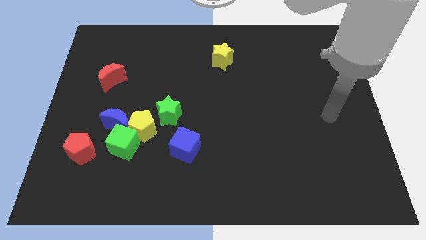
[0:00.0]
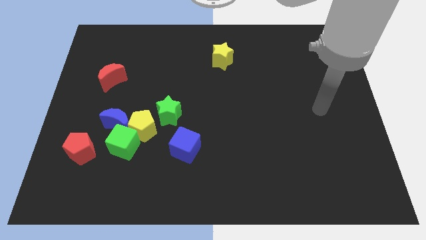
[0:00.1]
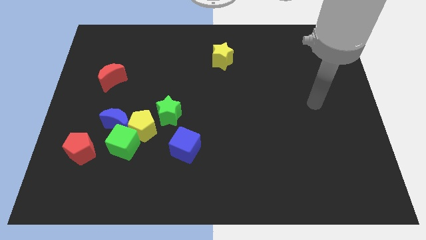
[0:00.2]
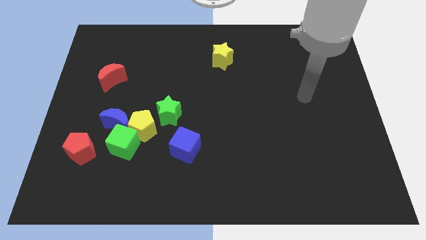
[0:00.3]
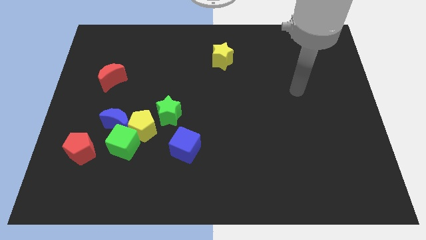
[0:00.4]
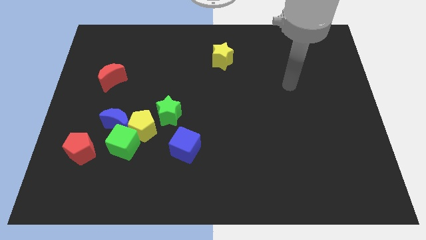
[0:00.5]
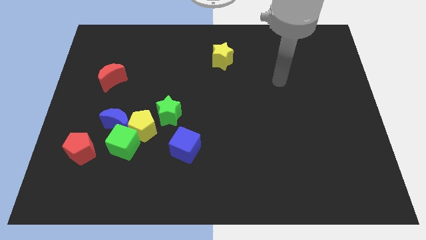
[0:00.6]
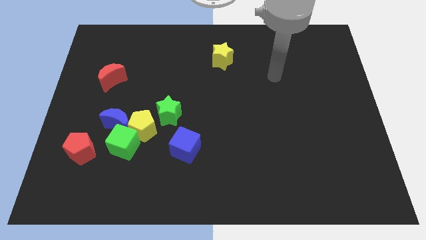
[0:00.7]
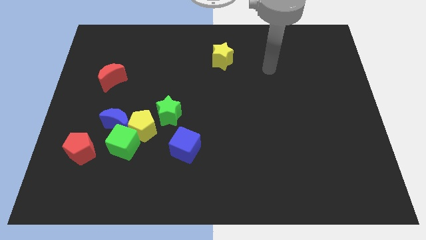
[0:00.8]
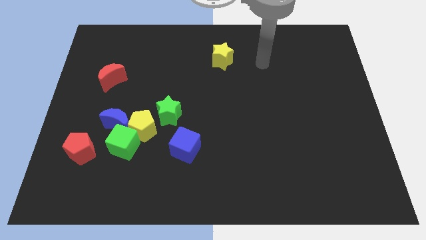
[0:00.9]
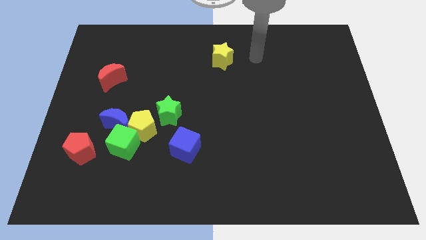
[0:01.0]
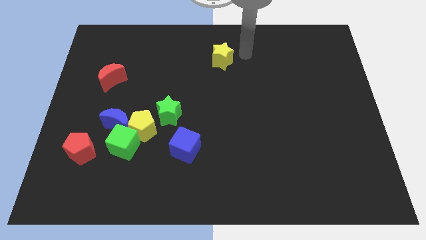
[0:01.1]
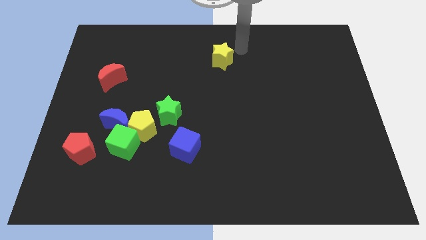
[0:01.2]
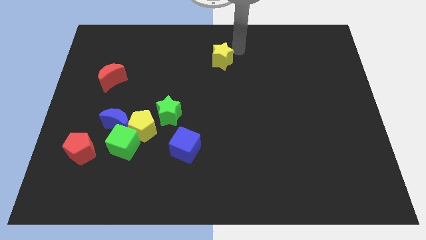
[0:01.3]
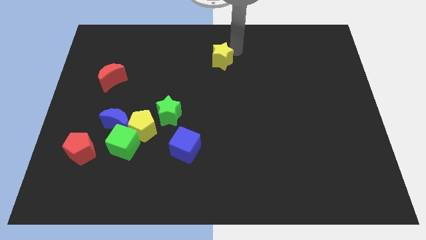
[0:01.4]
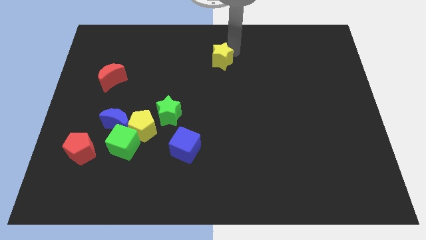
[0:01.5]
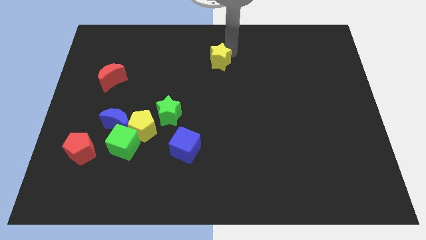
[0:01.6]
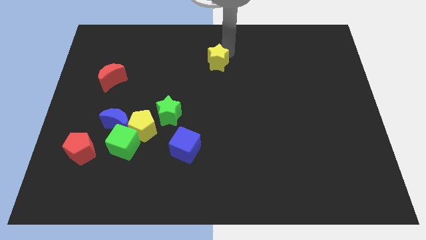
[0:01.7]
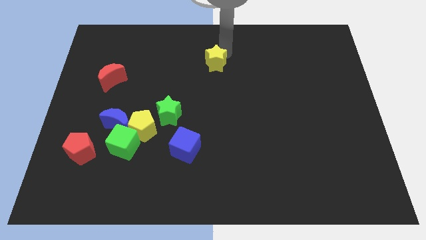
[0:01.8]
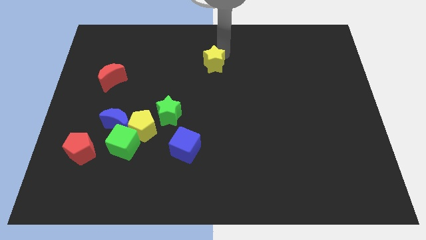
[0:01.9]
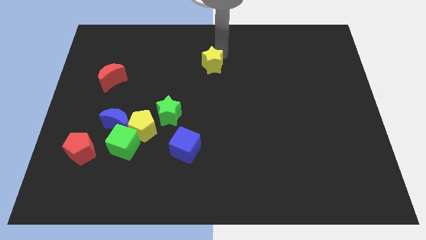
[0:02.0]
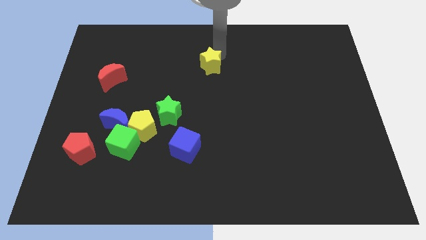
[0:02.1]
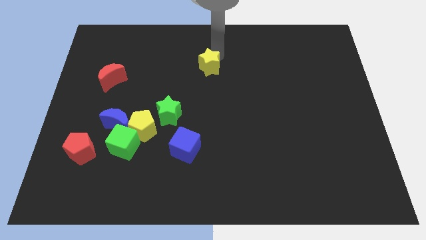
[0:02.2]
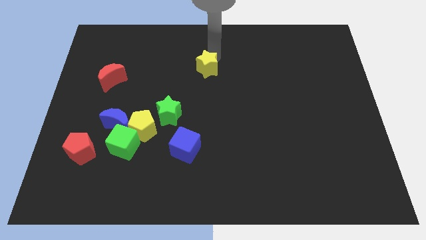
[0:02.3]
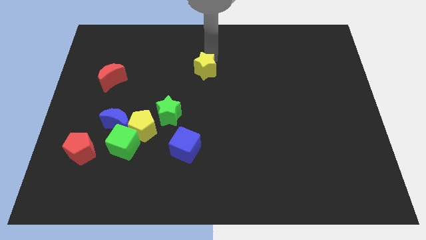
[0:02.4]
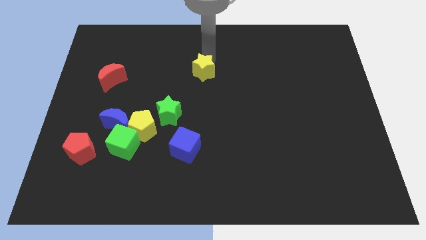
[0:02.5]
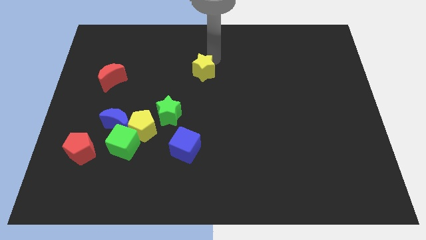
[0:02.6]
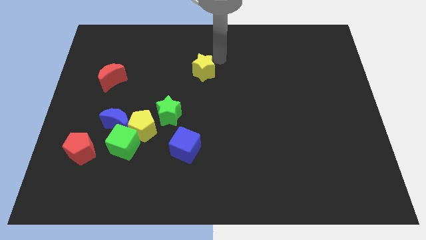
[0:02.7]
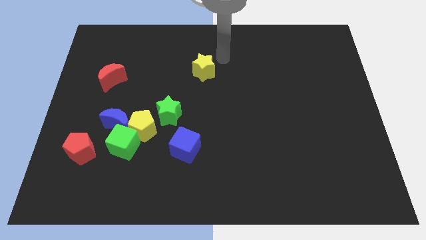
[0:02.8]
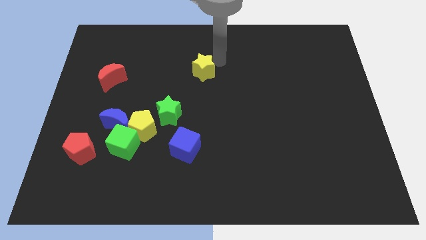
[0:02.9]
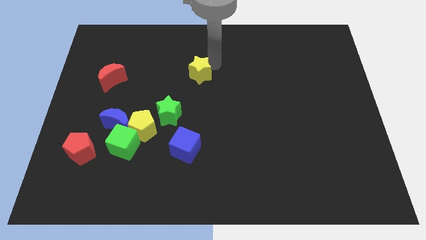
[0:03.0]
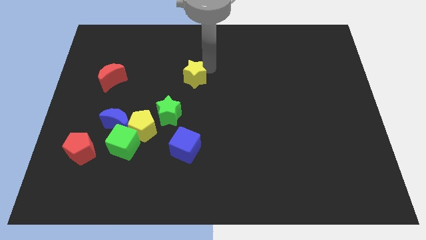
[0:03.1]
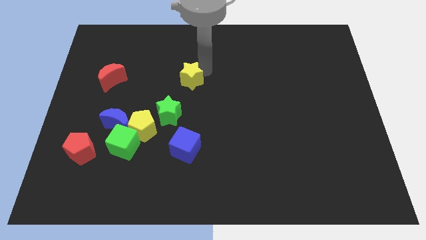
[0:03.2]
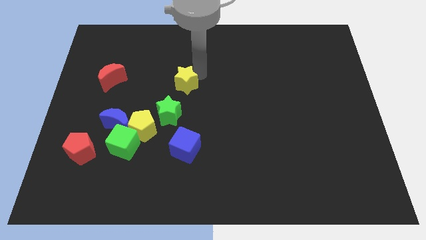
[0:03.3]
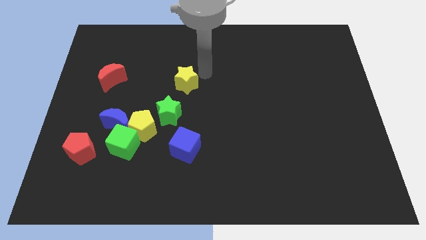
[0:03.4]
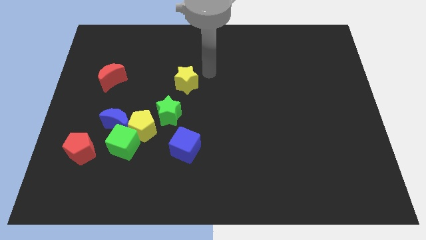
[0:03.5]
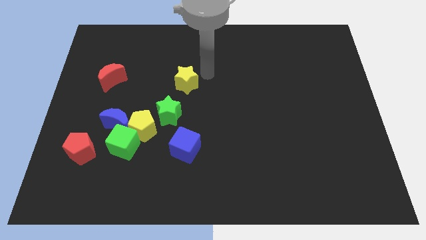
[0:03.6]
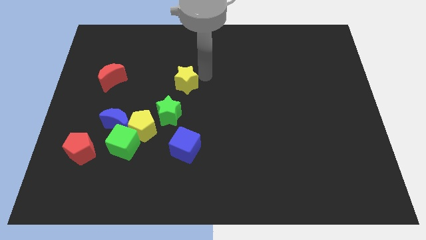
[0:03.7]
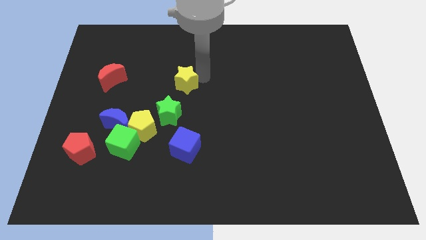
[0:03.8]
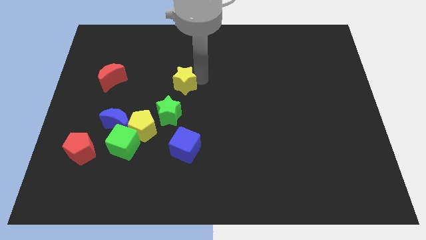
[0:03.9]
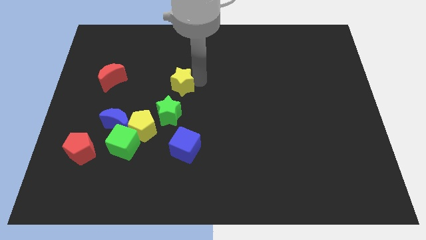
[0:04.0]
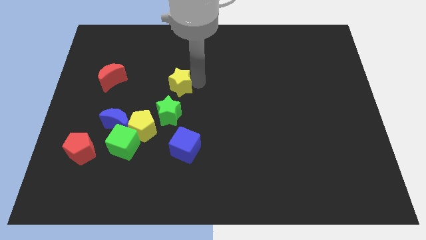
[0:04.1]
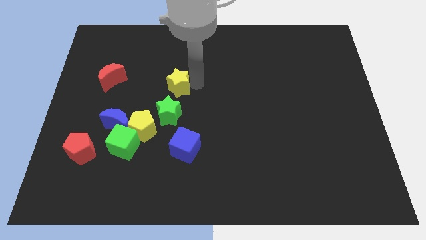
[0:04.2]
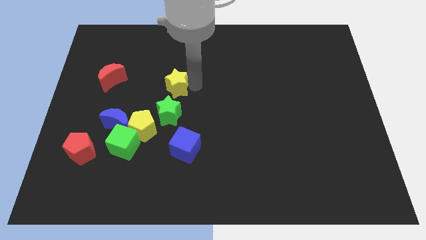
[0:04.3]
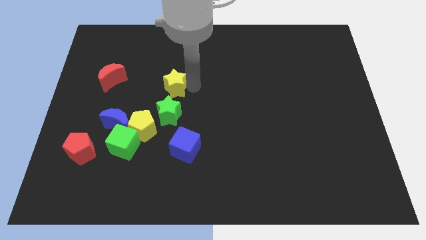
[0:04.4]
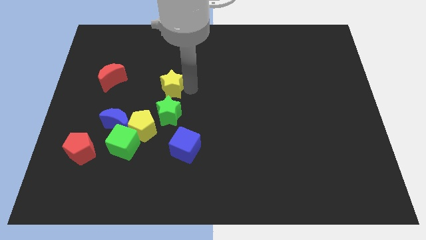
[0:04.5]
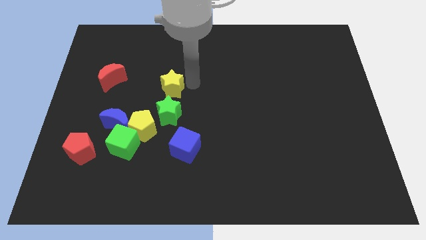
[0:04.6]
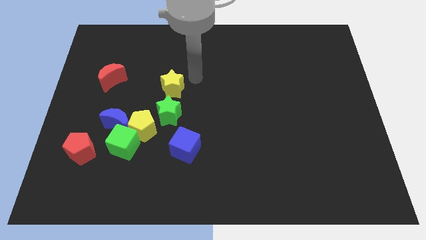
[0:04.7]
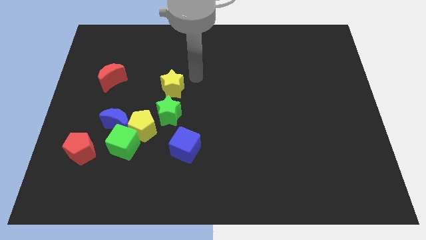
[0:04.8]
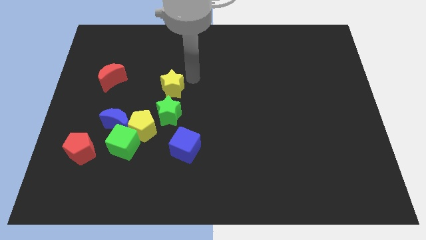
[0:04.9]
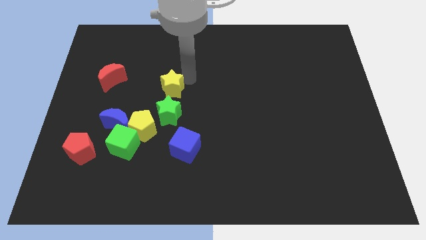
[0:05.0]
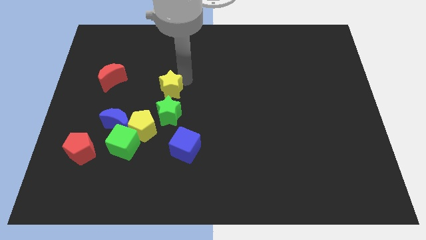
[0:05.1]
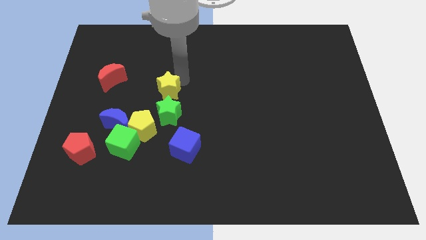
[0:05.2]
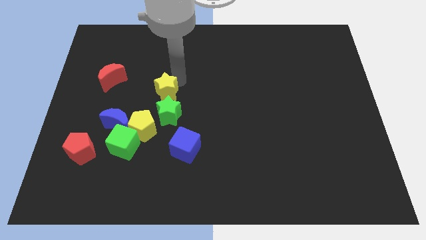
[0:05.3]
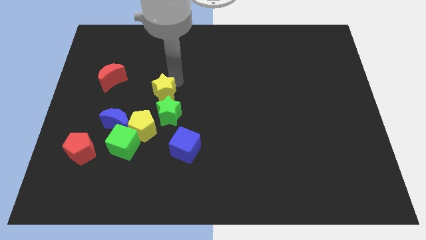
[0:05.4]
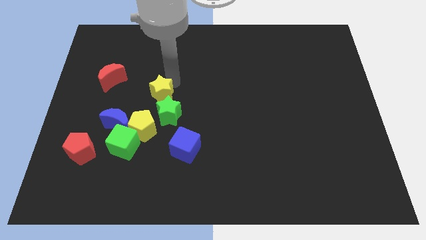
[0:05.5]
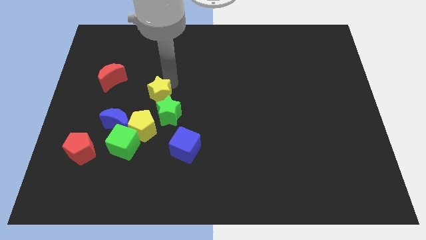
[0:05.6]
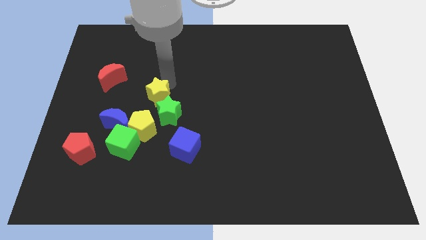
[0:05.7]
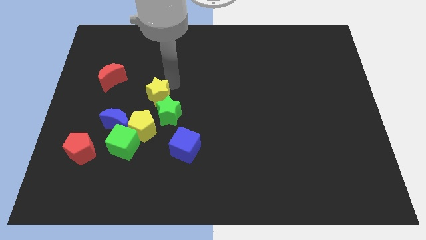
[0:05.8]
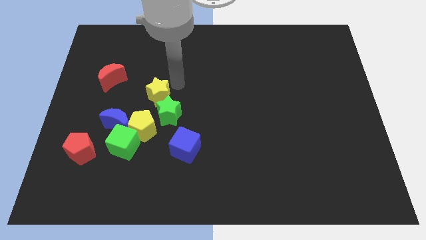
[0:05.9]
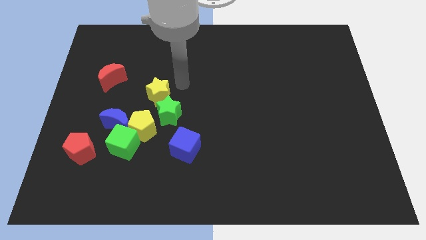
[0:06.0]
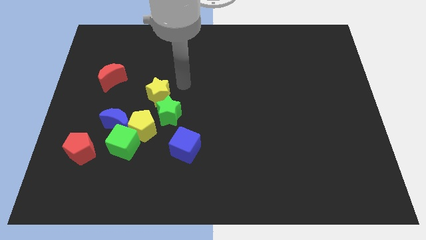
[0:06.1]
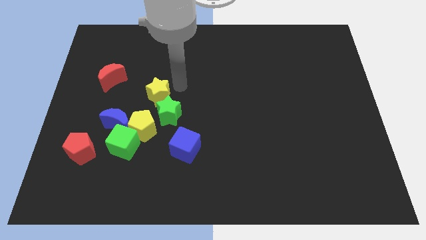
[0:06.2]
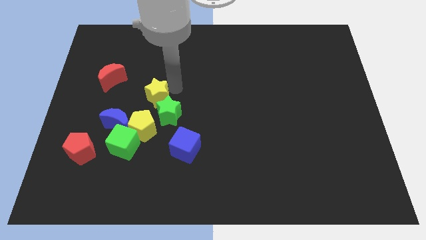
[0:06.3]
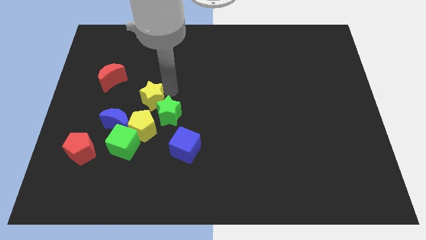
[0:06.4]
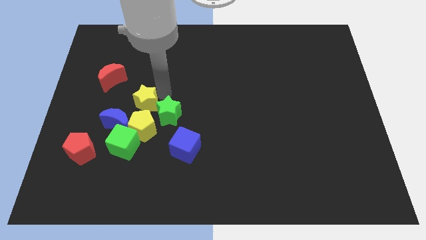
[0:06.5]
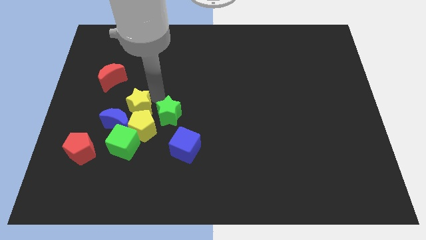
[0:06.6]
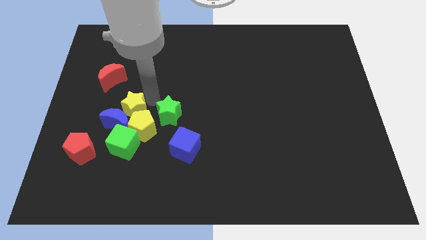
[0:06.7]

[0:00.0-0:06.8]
push the yellow star close to the blue moon

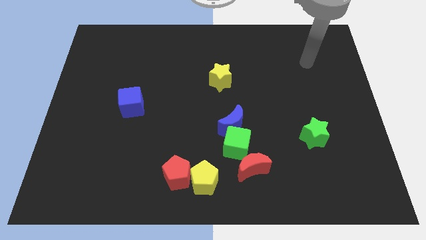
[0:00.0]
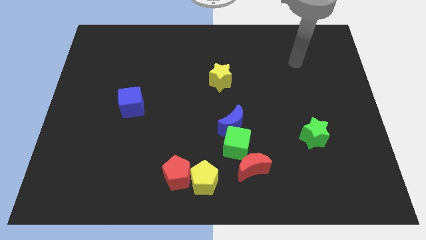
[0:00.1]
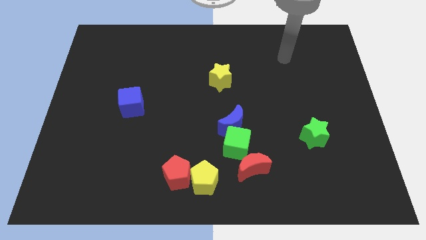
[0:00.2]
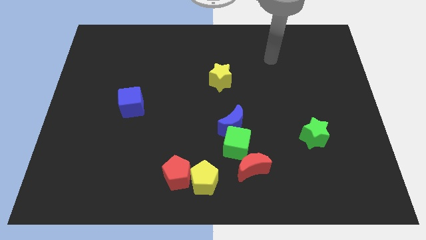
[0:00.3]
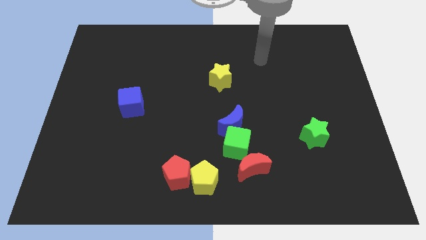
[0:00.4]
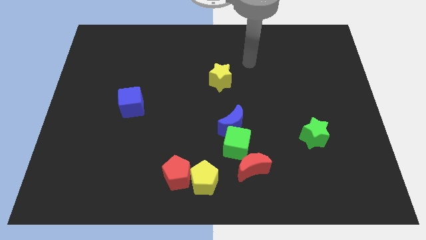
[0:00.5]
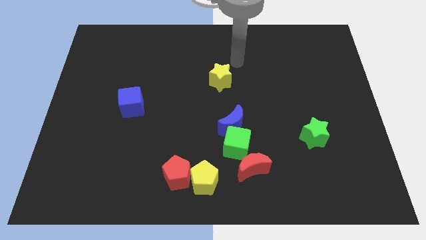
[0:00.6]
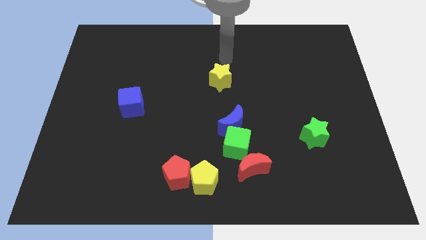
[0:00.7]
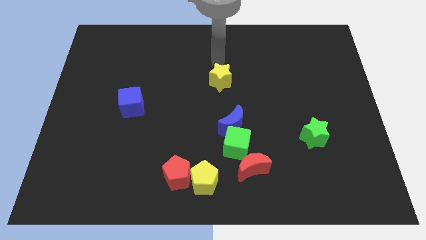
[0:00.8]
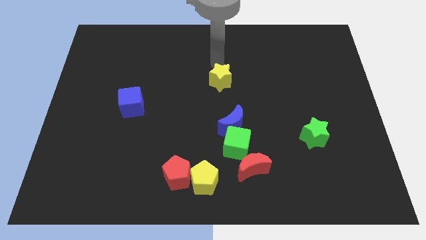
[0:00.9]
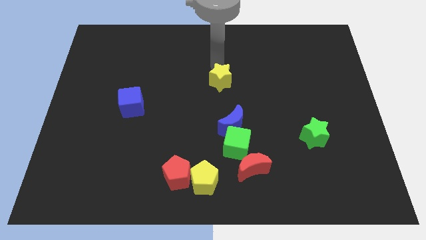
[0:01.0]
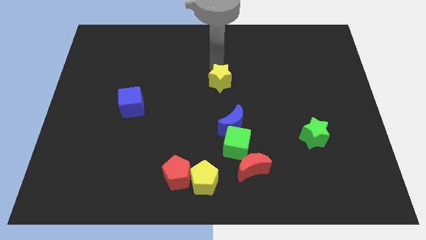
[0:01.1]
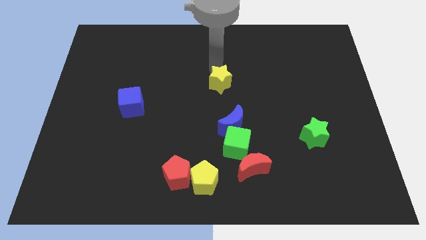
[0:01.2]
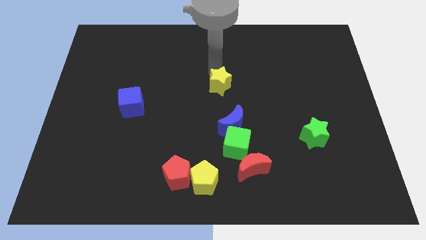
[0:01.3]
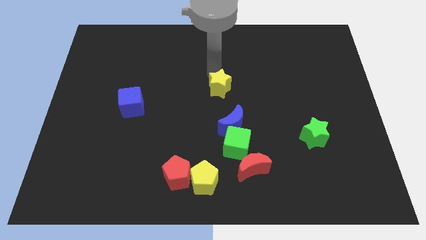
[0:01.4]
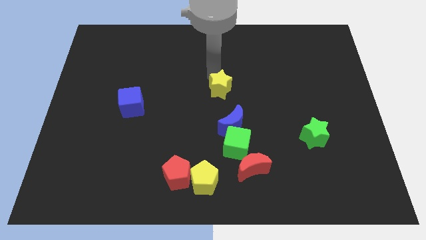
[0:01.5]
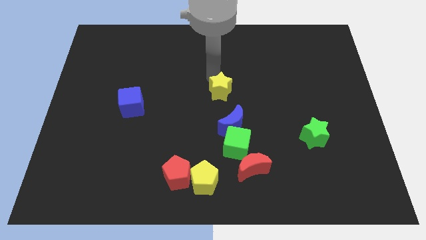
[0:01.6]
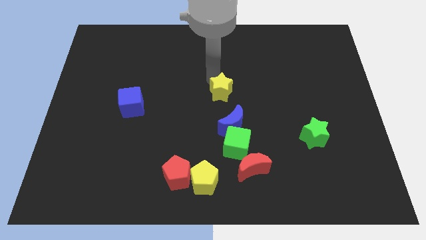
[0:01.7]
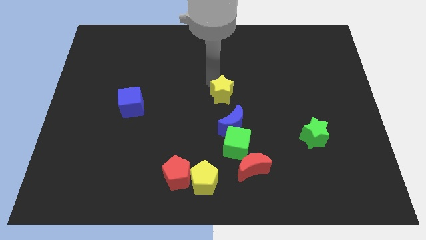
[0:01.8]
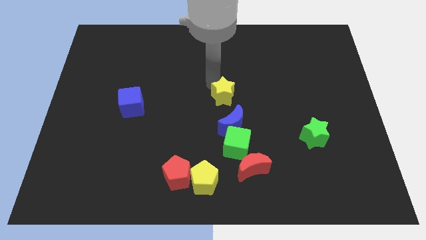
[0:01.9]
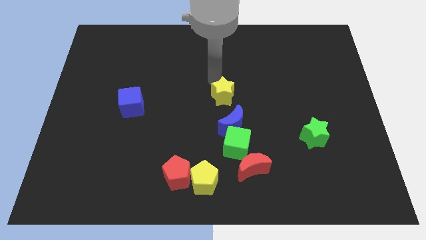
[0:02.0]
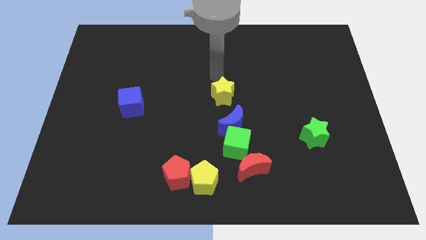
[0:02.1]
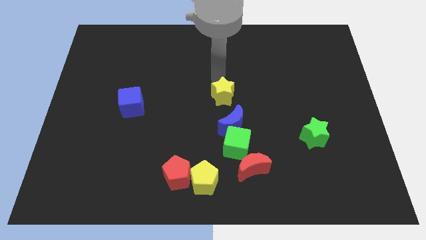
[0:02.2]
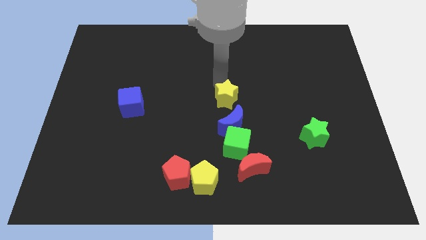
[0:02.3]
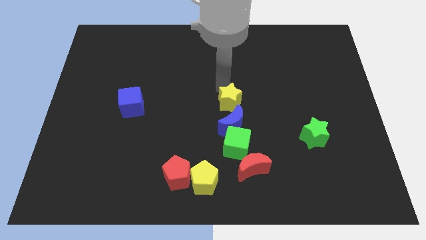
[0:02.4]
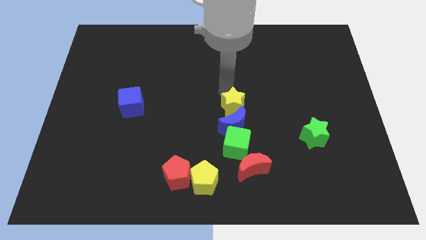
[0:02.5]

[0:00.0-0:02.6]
slide the yellow star to the blue moon
